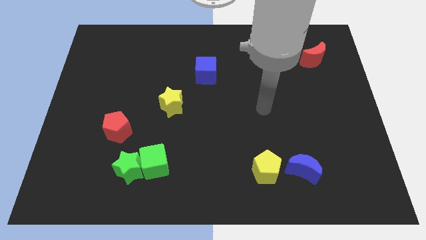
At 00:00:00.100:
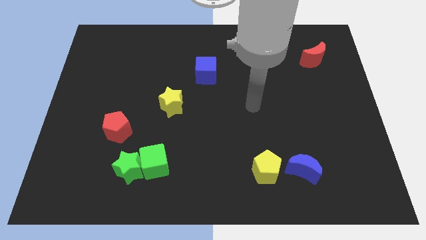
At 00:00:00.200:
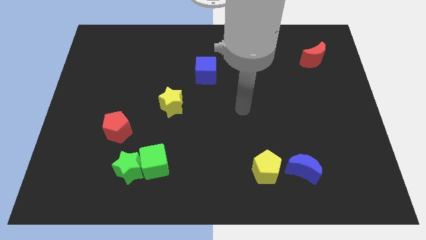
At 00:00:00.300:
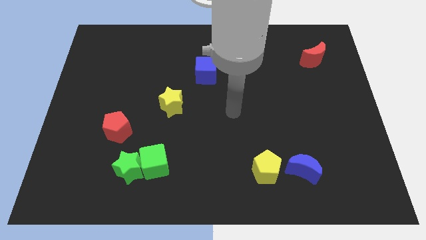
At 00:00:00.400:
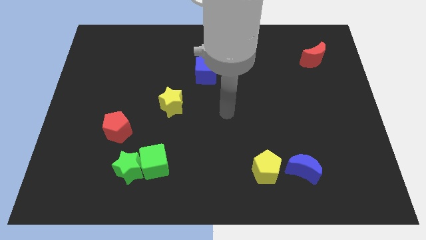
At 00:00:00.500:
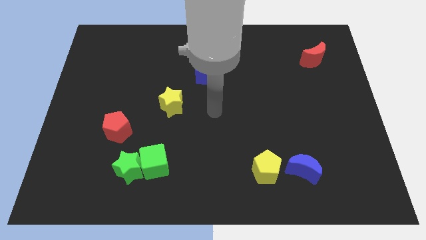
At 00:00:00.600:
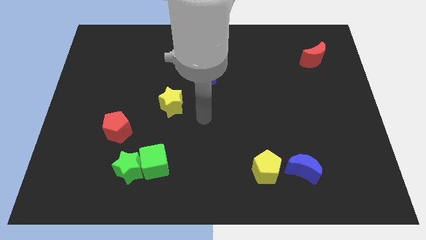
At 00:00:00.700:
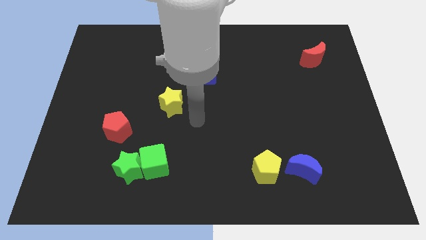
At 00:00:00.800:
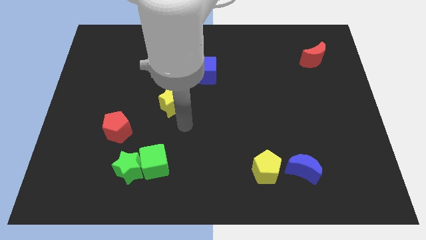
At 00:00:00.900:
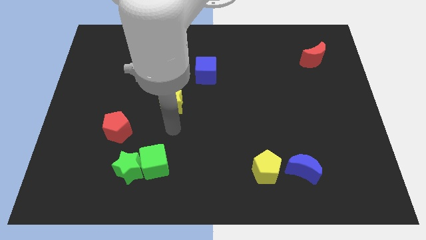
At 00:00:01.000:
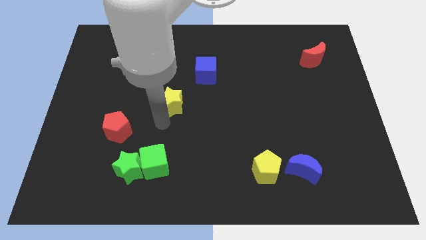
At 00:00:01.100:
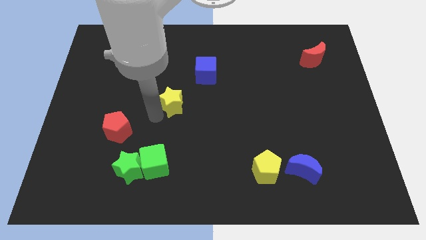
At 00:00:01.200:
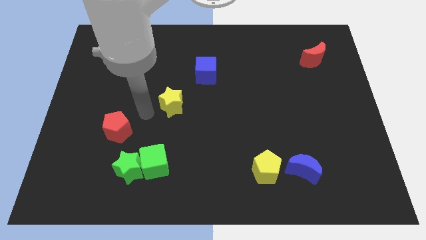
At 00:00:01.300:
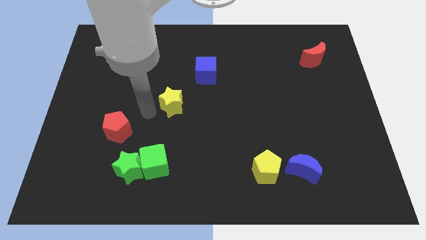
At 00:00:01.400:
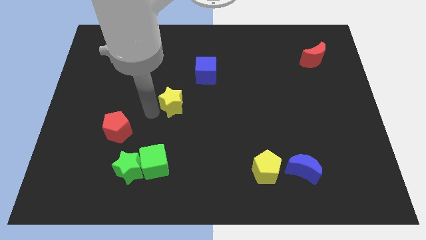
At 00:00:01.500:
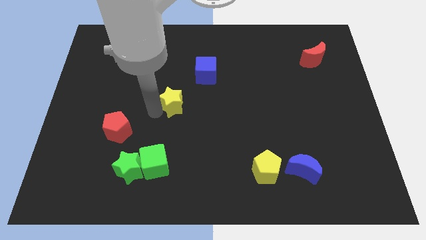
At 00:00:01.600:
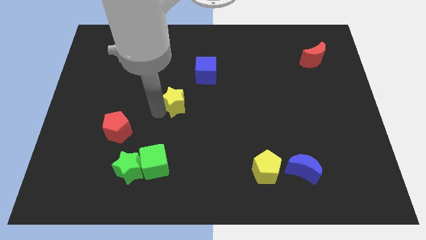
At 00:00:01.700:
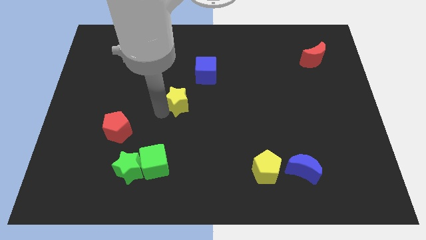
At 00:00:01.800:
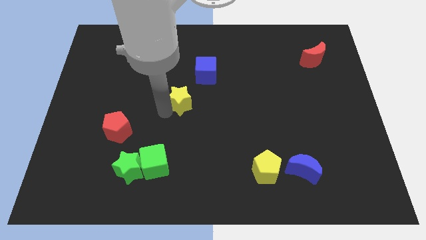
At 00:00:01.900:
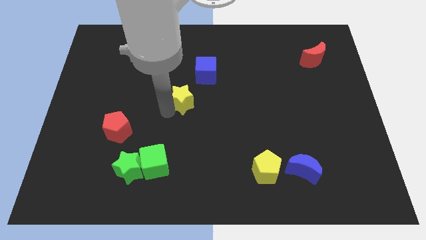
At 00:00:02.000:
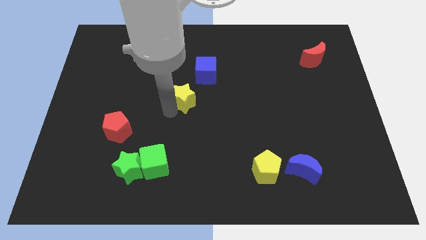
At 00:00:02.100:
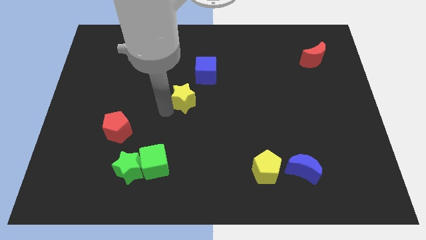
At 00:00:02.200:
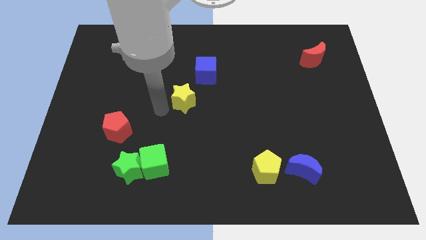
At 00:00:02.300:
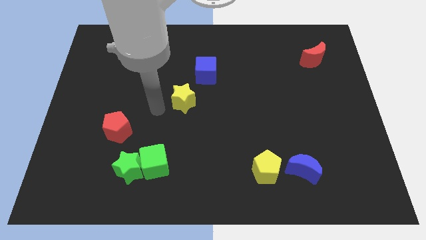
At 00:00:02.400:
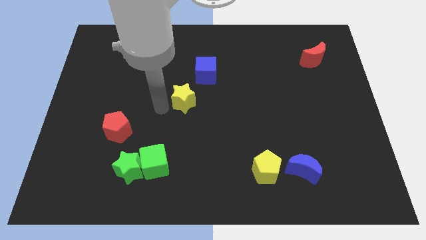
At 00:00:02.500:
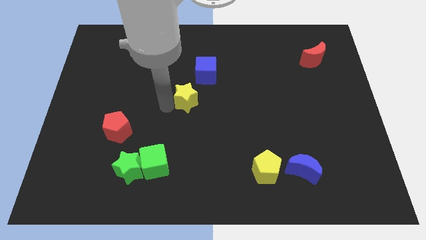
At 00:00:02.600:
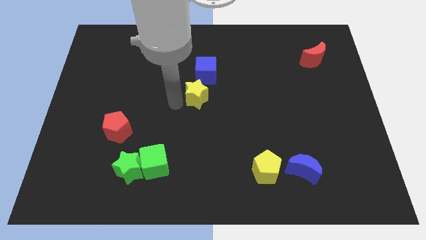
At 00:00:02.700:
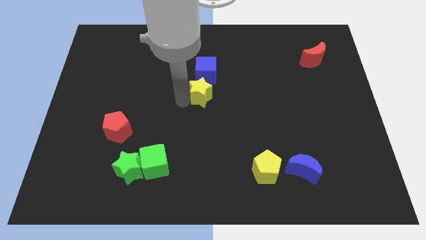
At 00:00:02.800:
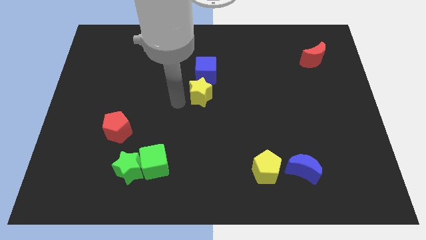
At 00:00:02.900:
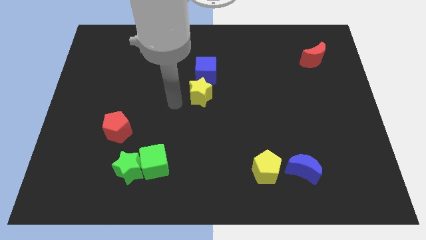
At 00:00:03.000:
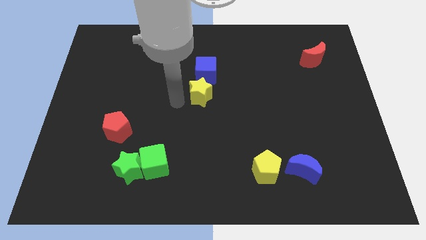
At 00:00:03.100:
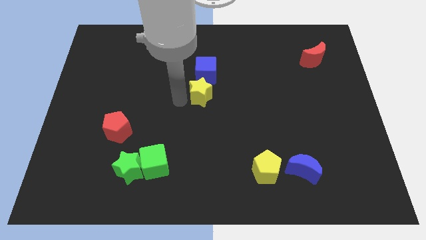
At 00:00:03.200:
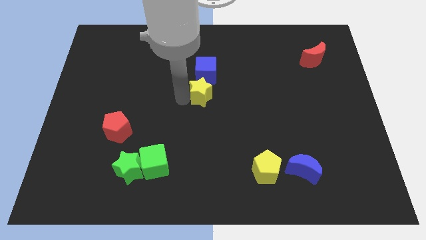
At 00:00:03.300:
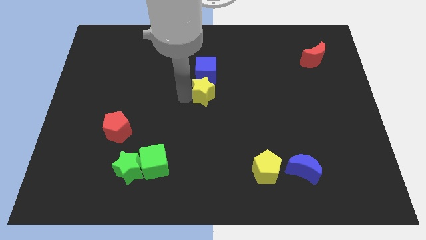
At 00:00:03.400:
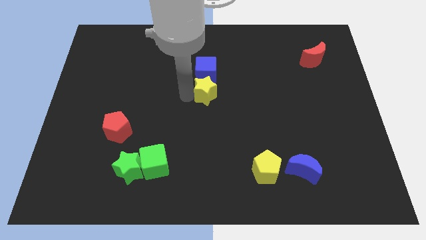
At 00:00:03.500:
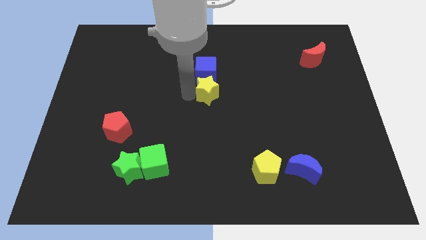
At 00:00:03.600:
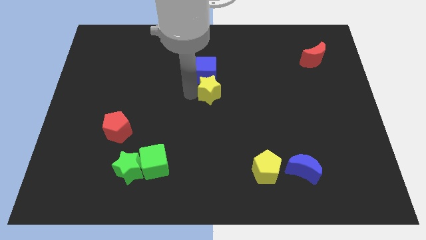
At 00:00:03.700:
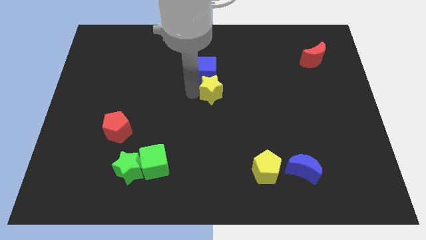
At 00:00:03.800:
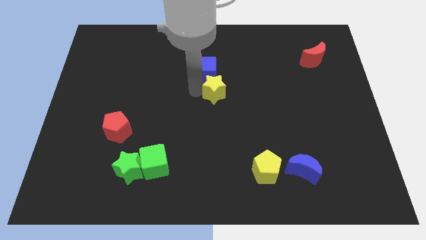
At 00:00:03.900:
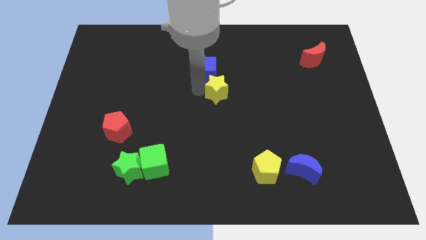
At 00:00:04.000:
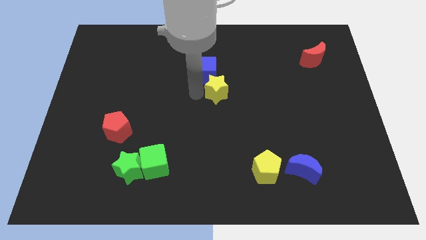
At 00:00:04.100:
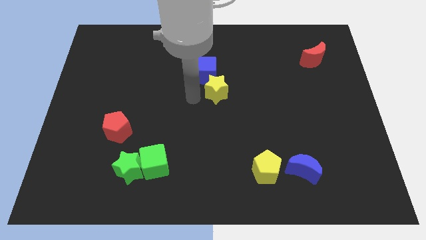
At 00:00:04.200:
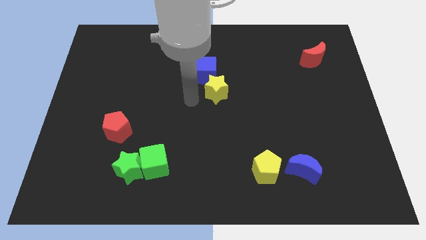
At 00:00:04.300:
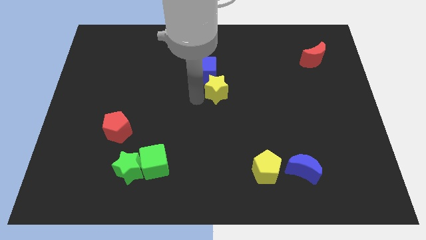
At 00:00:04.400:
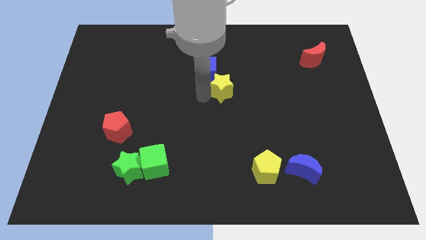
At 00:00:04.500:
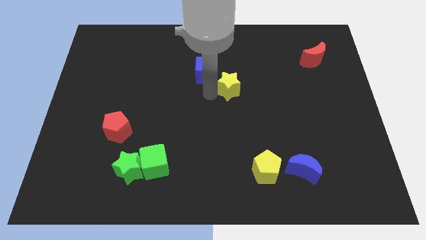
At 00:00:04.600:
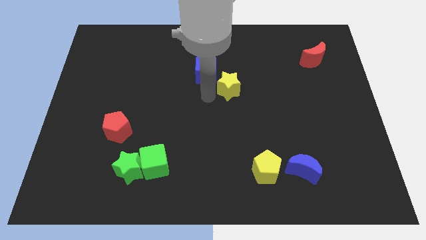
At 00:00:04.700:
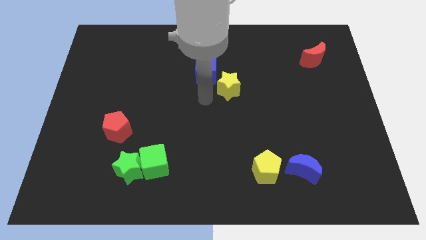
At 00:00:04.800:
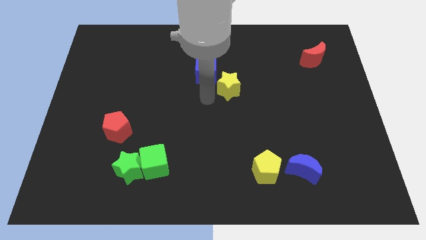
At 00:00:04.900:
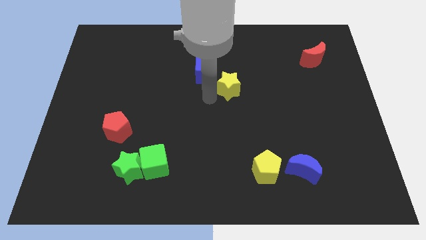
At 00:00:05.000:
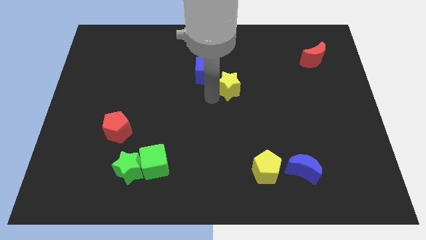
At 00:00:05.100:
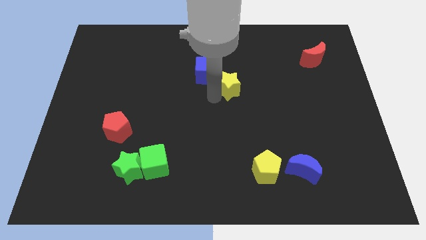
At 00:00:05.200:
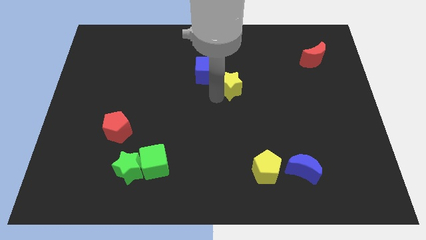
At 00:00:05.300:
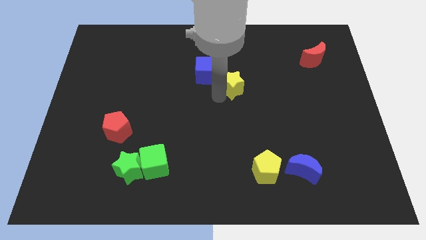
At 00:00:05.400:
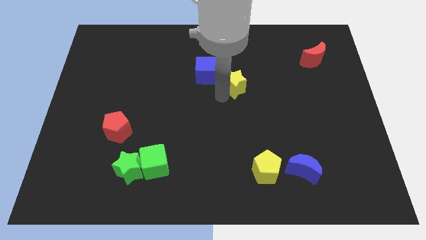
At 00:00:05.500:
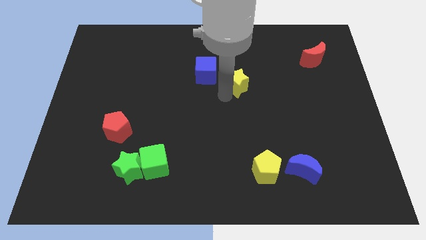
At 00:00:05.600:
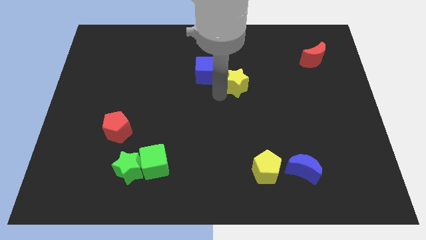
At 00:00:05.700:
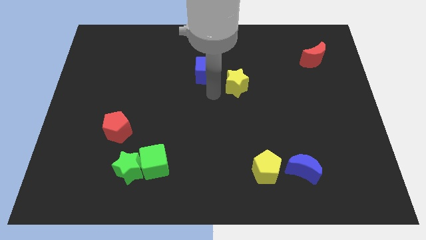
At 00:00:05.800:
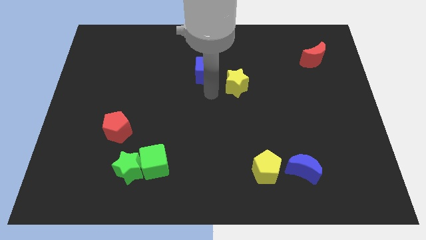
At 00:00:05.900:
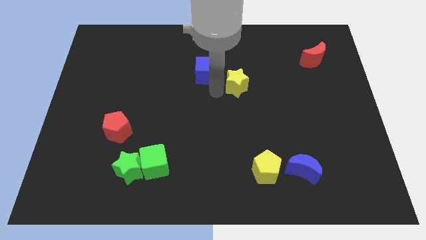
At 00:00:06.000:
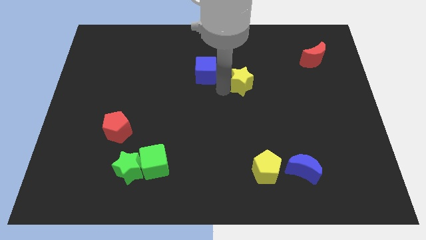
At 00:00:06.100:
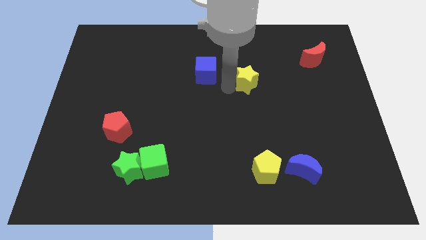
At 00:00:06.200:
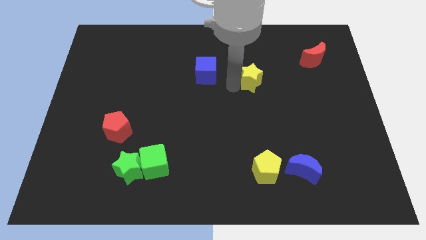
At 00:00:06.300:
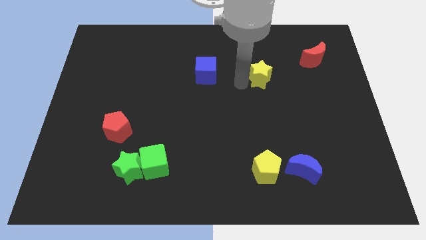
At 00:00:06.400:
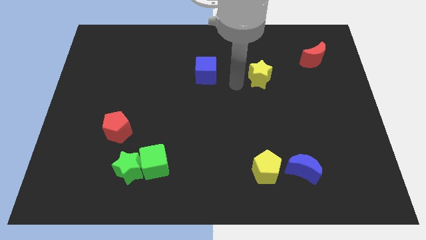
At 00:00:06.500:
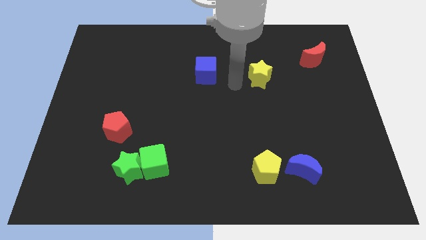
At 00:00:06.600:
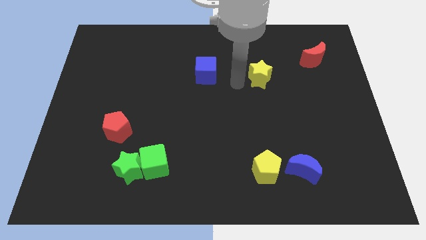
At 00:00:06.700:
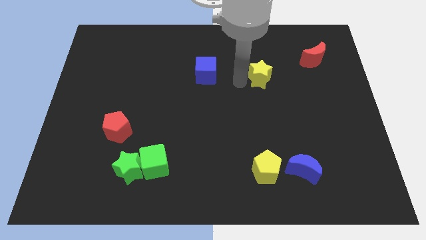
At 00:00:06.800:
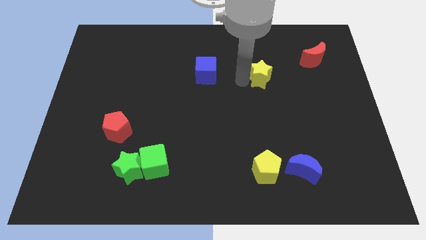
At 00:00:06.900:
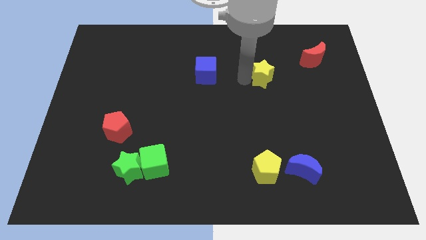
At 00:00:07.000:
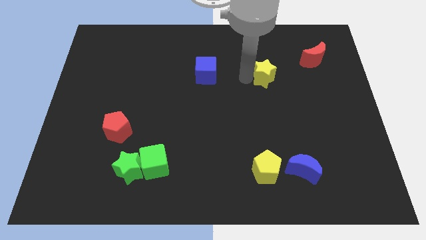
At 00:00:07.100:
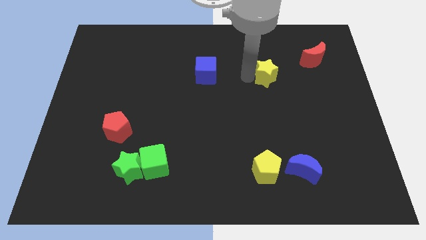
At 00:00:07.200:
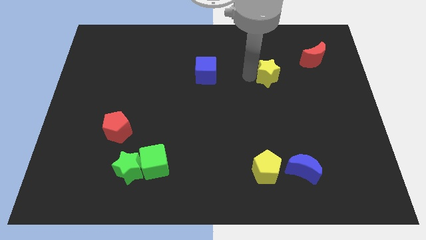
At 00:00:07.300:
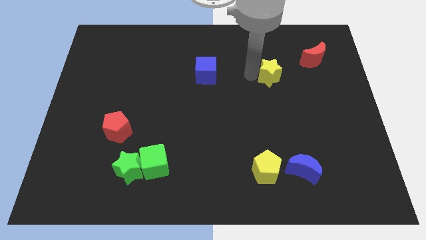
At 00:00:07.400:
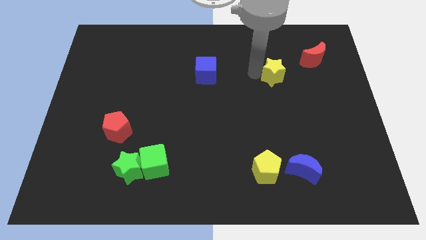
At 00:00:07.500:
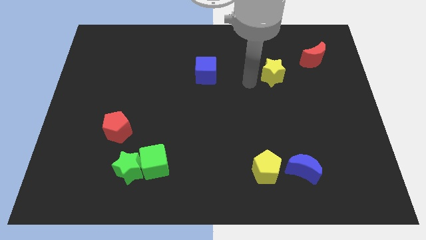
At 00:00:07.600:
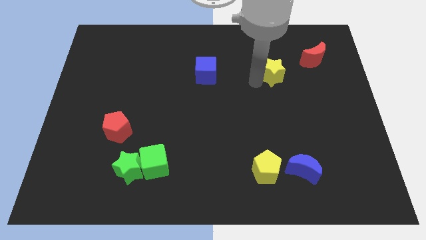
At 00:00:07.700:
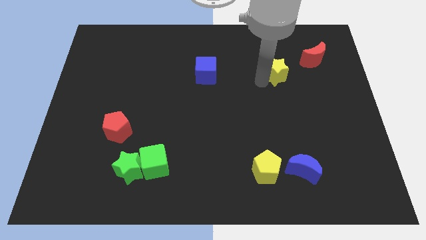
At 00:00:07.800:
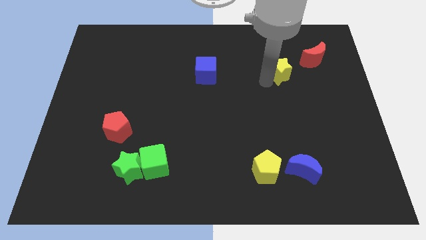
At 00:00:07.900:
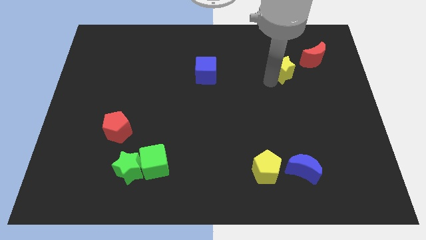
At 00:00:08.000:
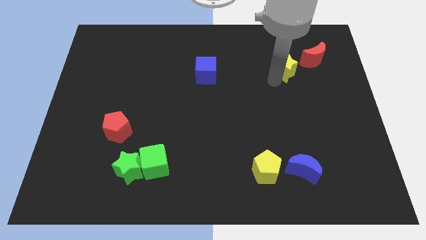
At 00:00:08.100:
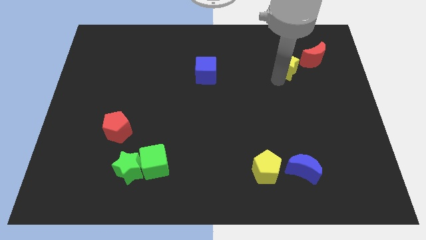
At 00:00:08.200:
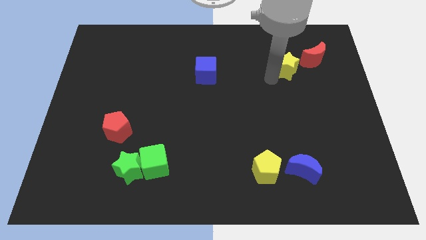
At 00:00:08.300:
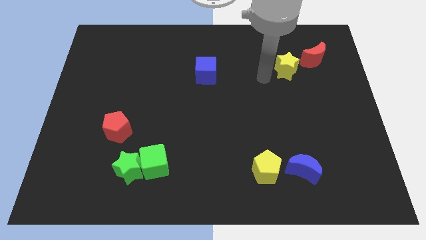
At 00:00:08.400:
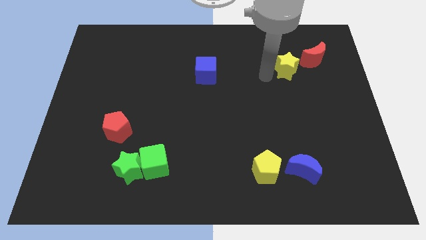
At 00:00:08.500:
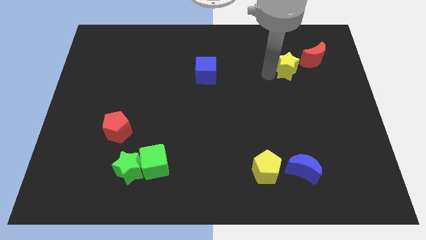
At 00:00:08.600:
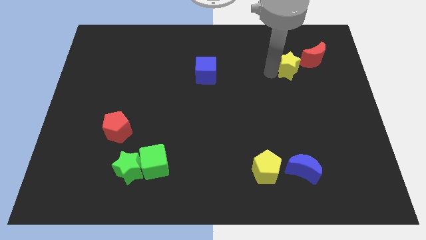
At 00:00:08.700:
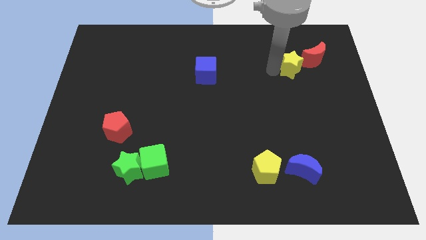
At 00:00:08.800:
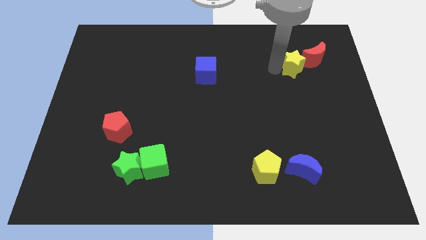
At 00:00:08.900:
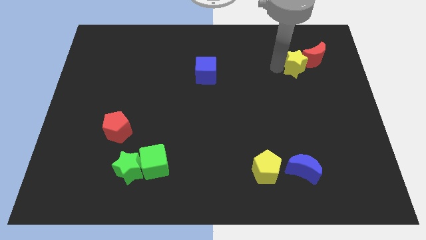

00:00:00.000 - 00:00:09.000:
move the yellow star next to the red moon
